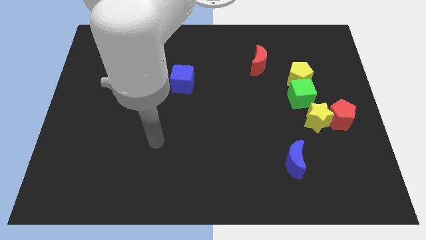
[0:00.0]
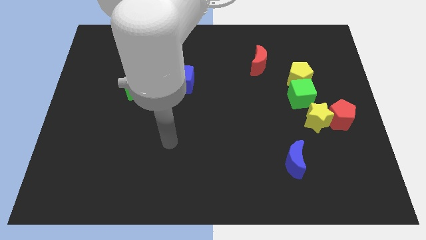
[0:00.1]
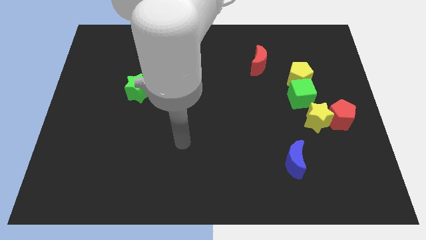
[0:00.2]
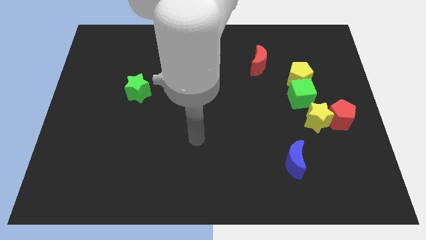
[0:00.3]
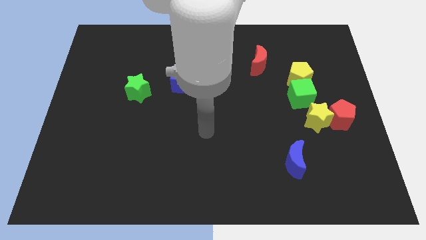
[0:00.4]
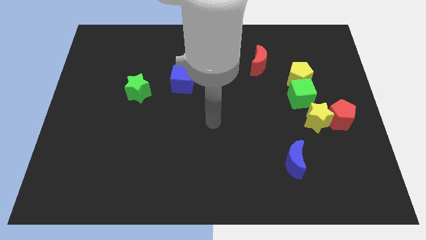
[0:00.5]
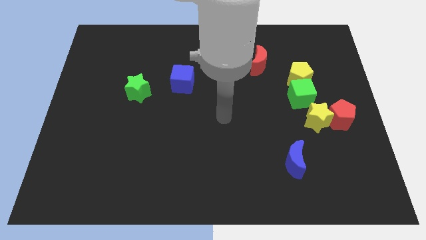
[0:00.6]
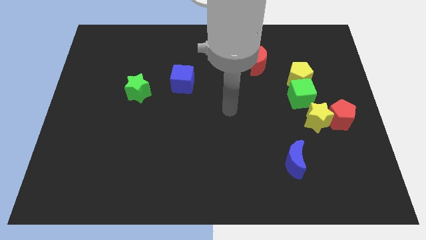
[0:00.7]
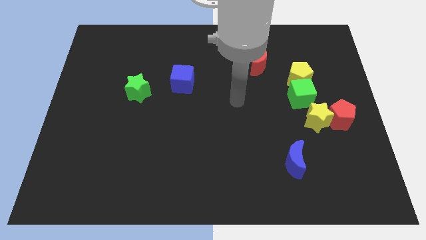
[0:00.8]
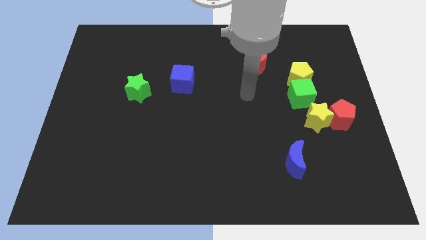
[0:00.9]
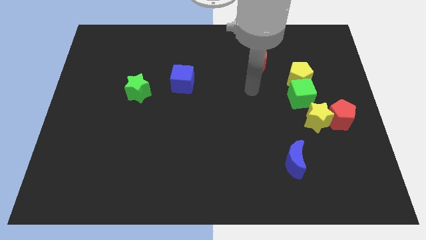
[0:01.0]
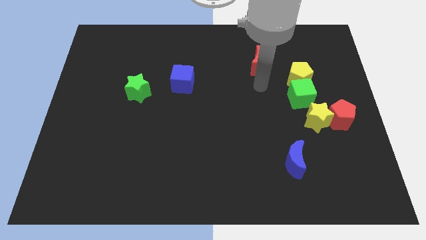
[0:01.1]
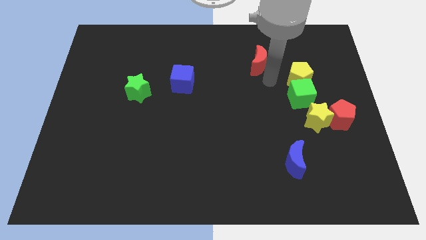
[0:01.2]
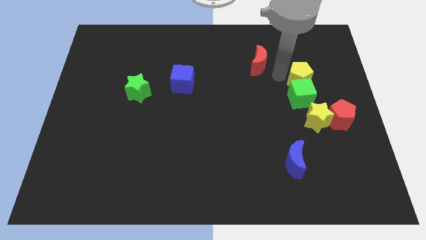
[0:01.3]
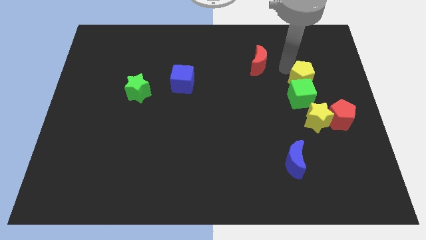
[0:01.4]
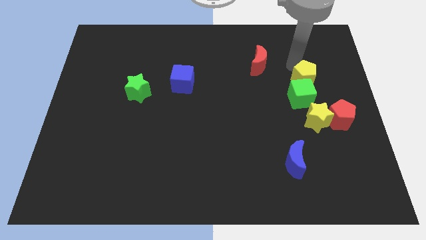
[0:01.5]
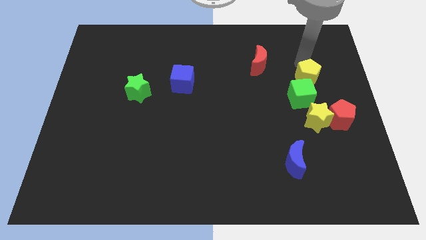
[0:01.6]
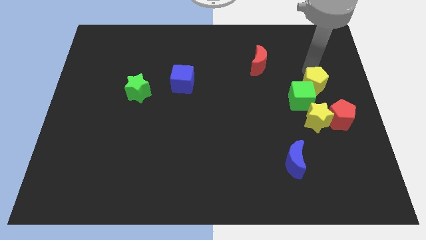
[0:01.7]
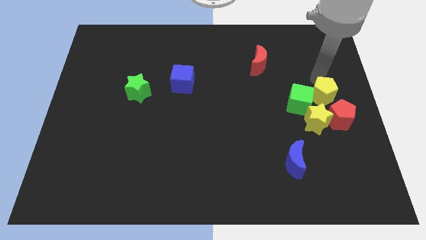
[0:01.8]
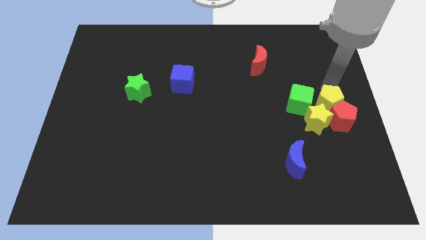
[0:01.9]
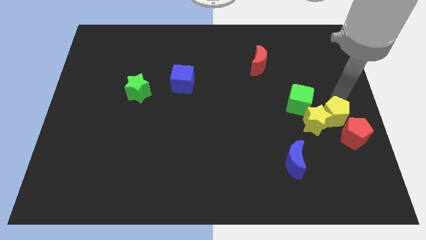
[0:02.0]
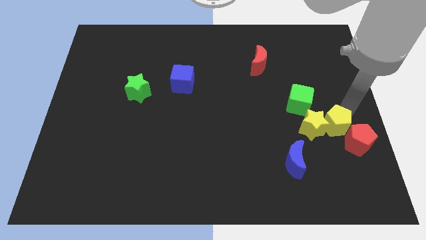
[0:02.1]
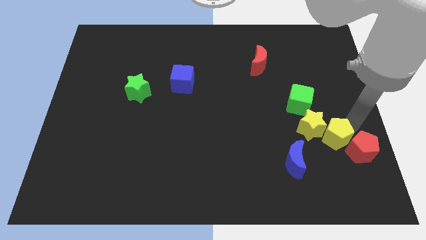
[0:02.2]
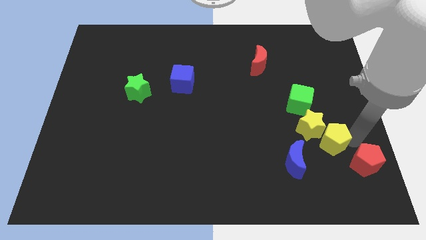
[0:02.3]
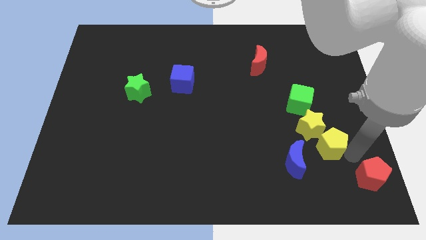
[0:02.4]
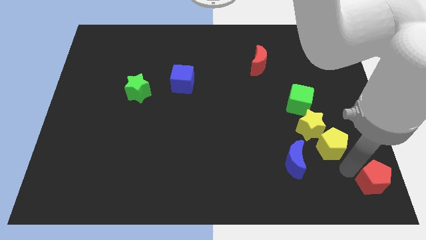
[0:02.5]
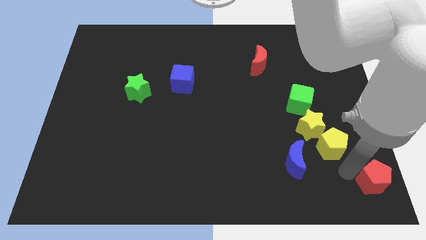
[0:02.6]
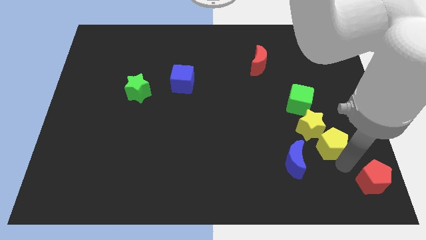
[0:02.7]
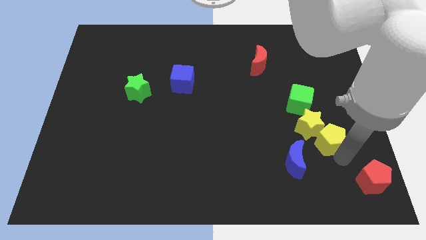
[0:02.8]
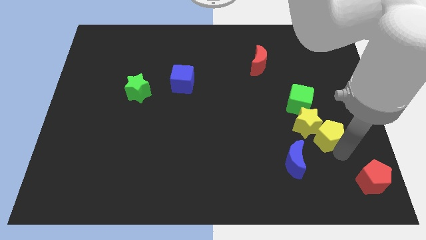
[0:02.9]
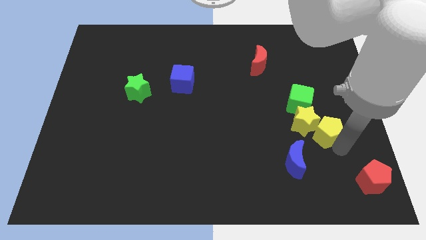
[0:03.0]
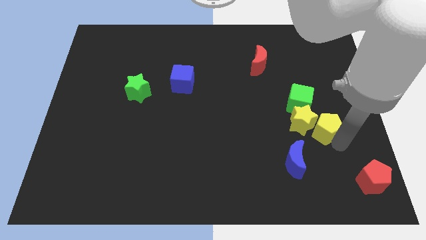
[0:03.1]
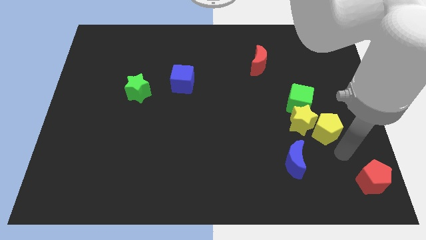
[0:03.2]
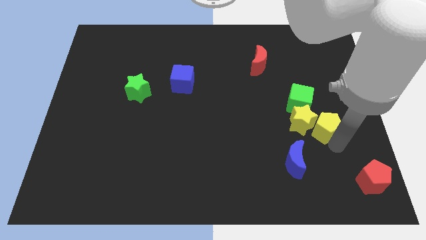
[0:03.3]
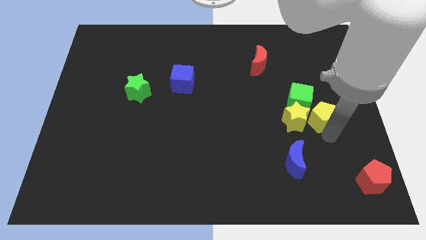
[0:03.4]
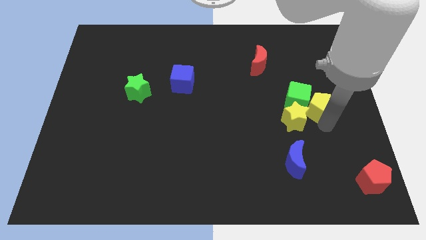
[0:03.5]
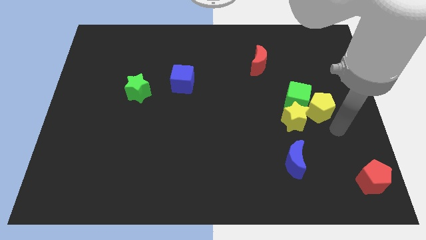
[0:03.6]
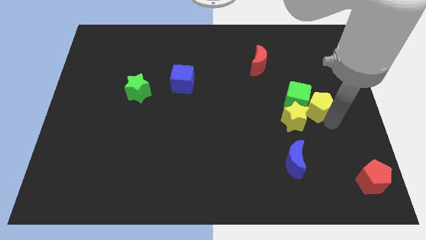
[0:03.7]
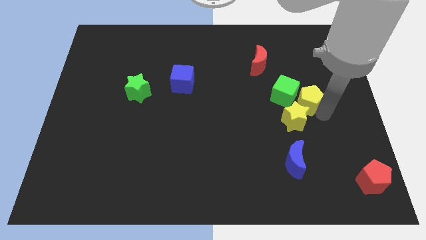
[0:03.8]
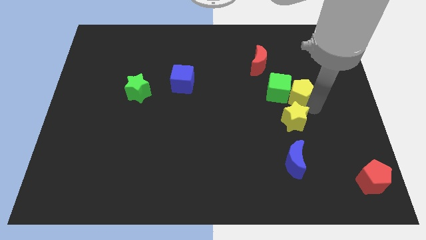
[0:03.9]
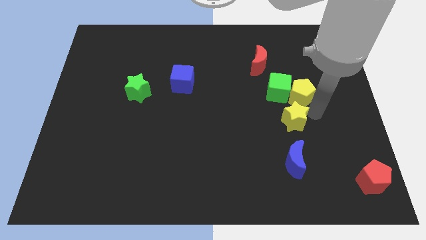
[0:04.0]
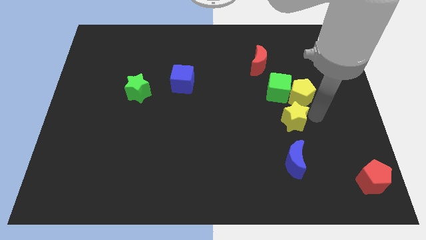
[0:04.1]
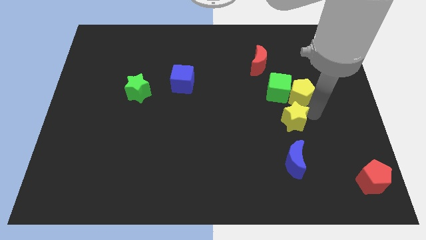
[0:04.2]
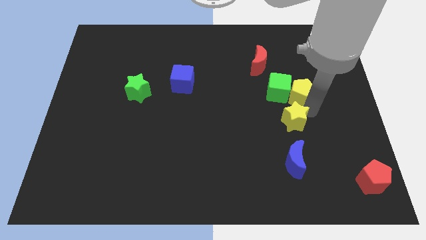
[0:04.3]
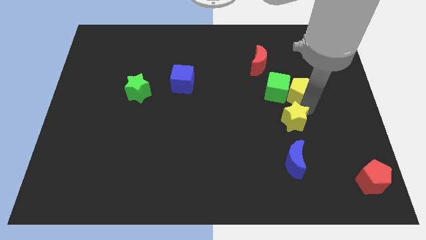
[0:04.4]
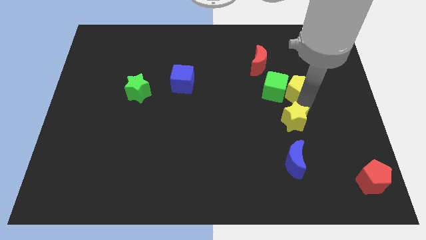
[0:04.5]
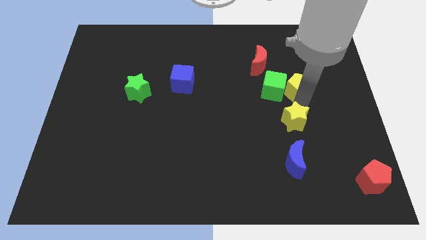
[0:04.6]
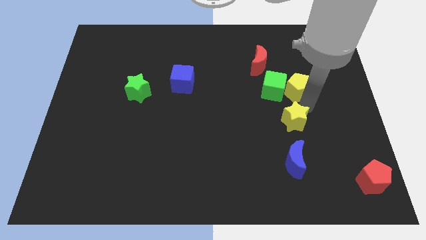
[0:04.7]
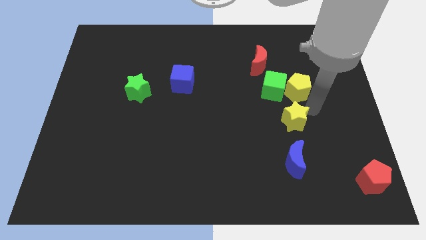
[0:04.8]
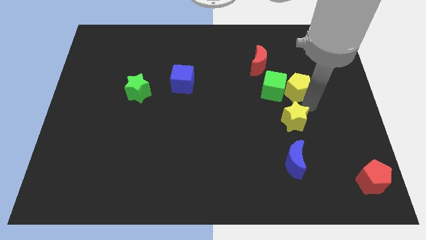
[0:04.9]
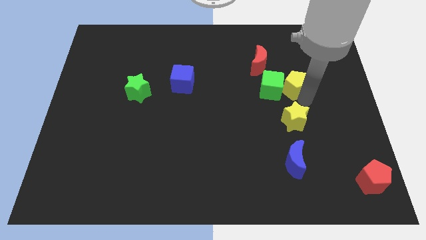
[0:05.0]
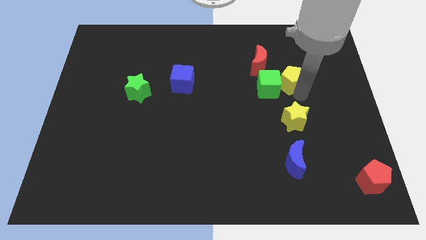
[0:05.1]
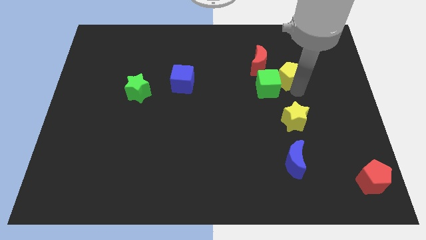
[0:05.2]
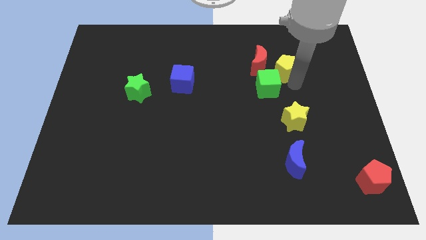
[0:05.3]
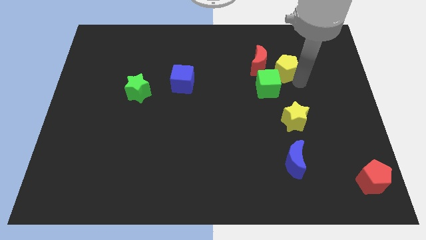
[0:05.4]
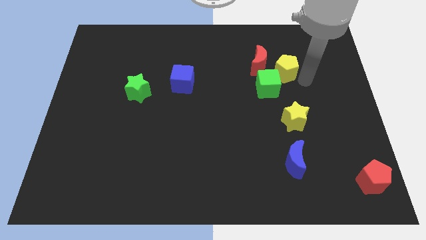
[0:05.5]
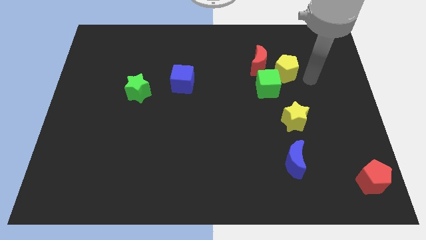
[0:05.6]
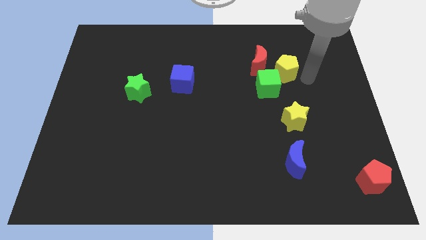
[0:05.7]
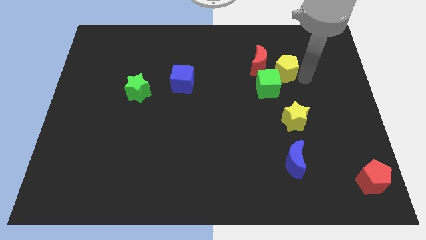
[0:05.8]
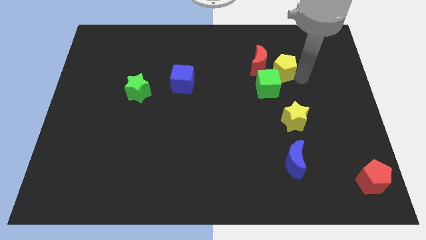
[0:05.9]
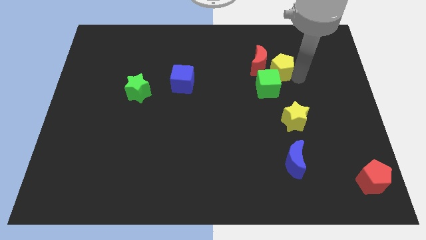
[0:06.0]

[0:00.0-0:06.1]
move the yellow pentagon next to the red moon

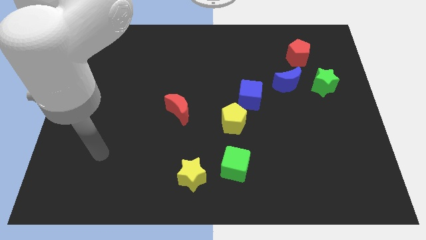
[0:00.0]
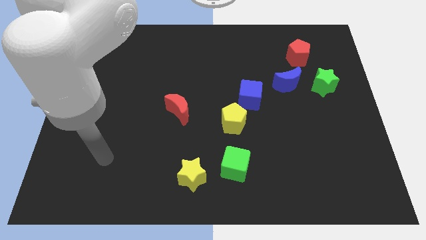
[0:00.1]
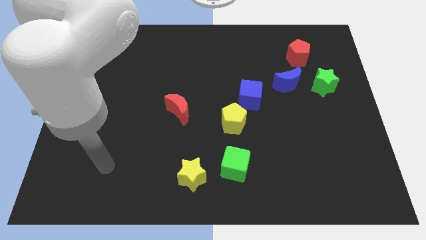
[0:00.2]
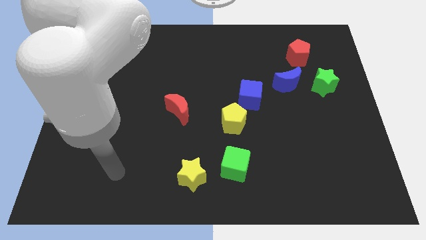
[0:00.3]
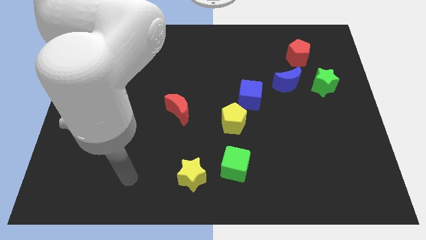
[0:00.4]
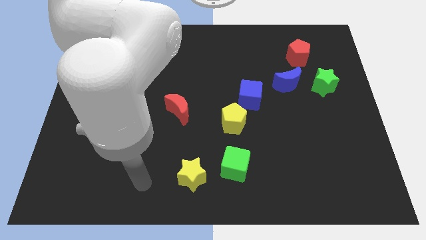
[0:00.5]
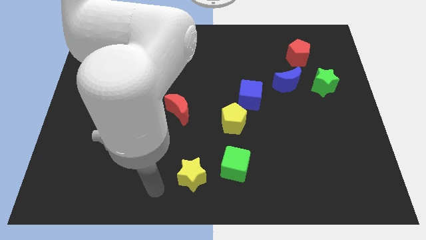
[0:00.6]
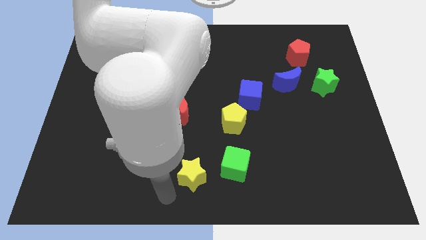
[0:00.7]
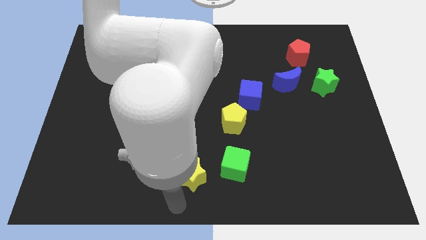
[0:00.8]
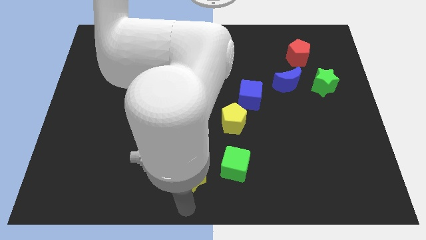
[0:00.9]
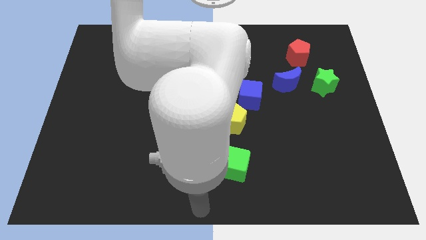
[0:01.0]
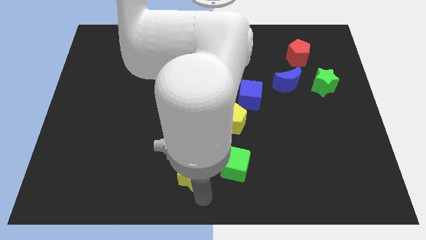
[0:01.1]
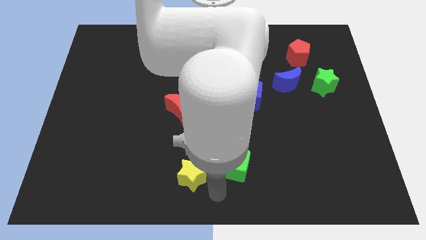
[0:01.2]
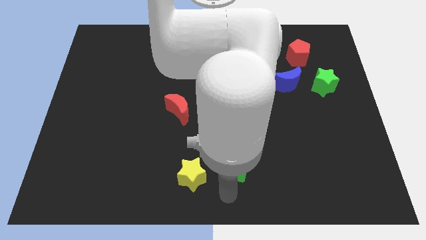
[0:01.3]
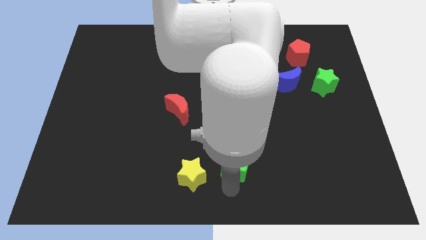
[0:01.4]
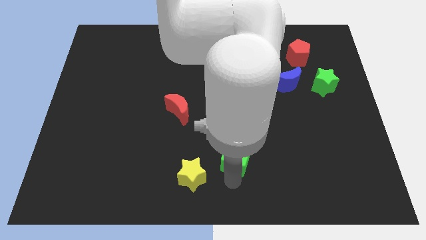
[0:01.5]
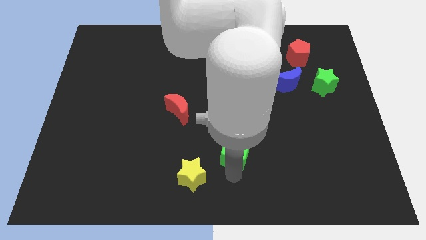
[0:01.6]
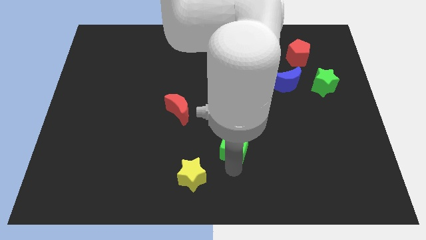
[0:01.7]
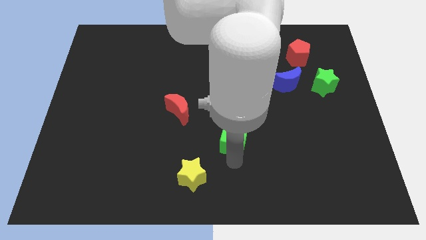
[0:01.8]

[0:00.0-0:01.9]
slide the green cube next to the yellow pentagon
